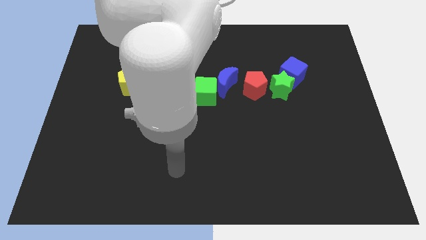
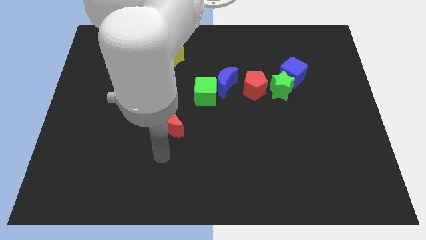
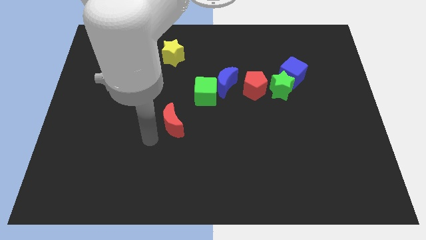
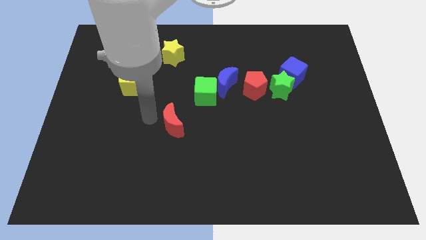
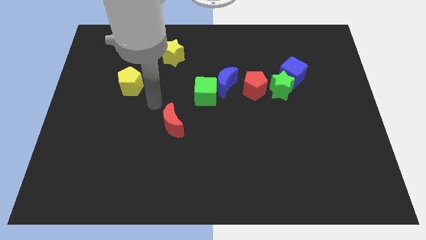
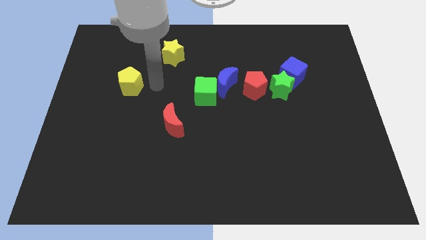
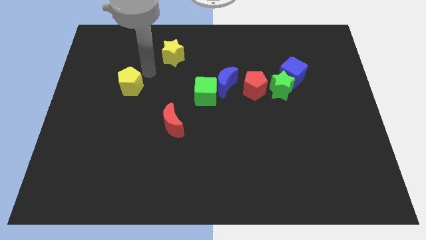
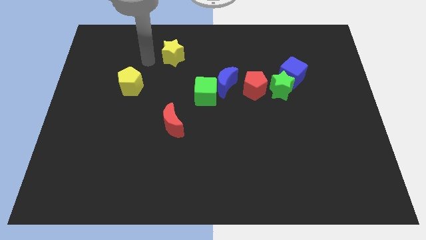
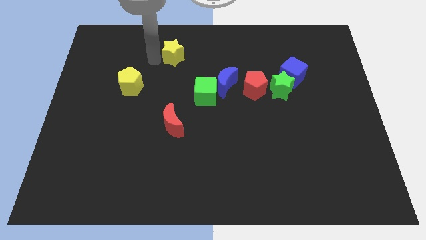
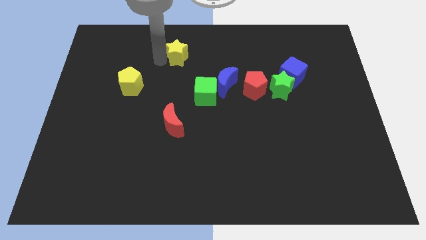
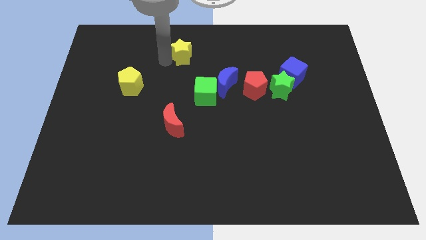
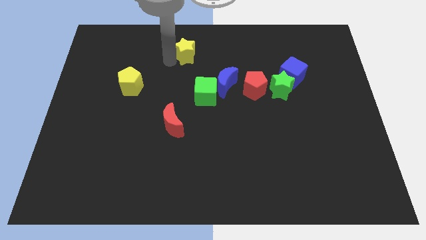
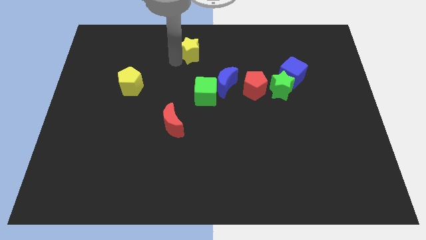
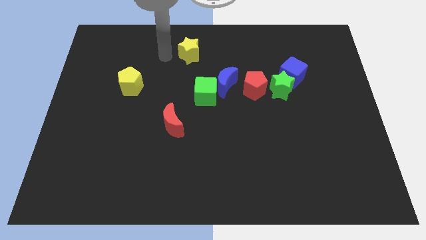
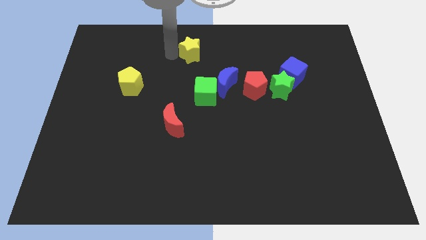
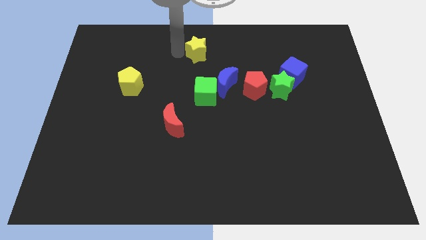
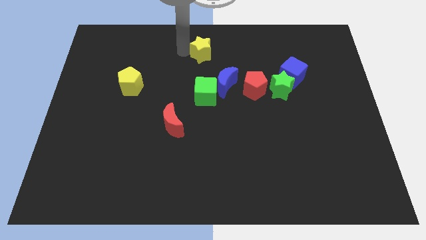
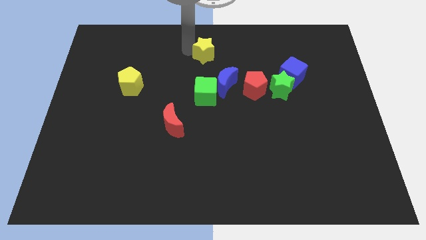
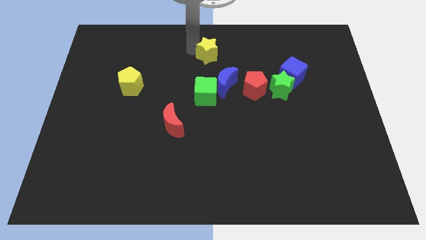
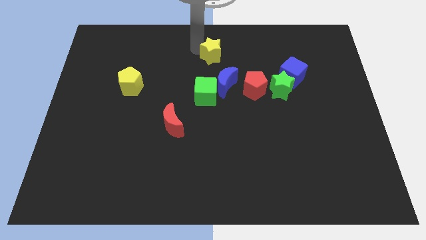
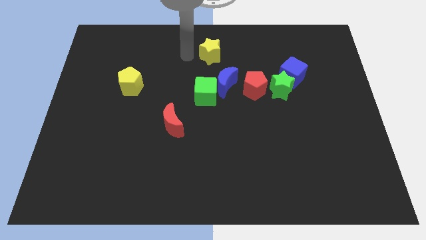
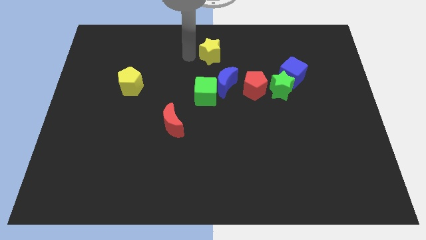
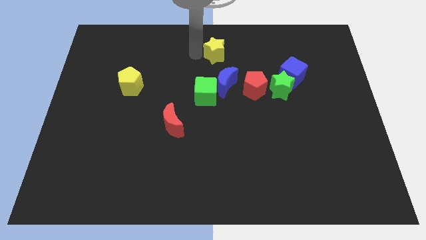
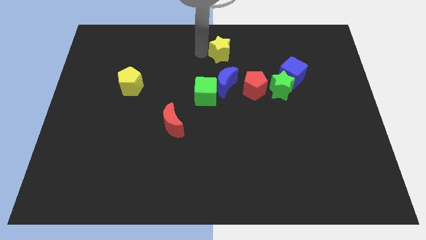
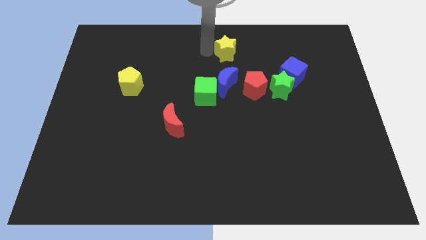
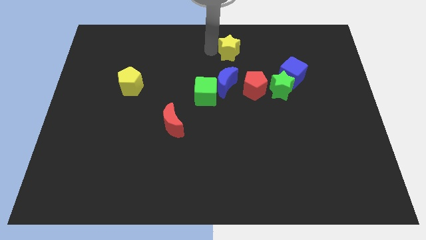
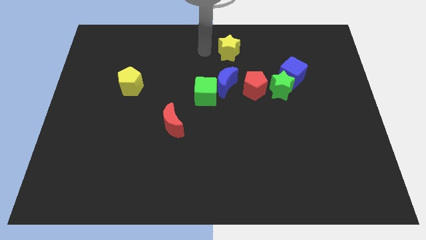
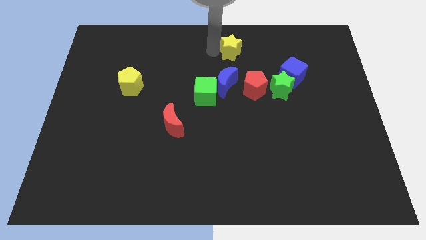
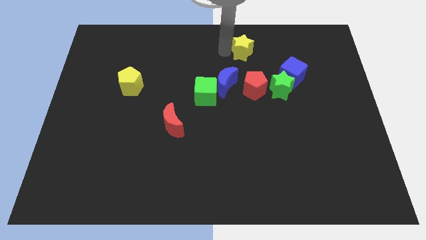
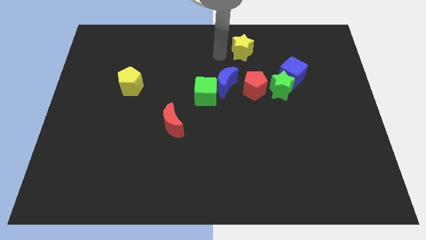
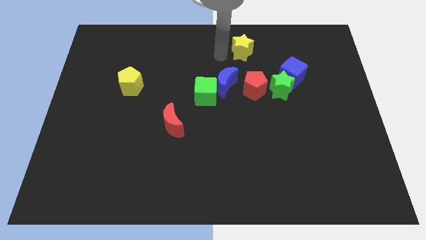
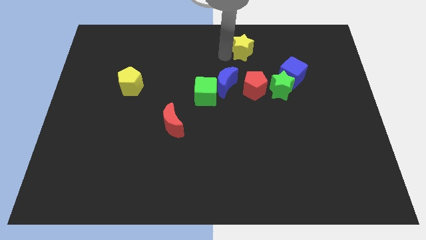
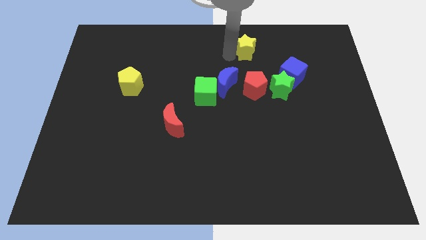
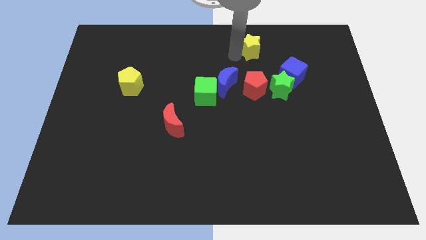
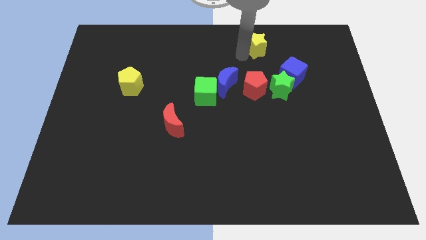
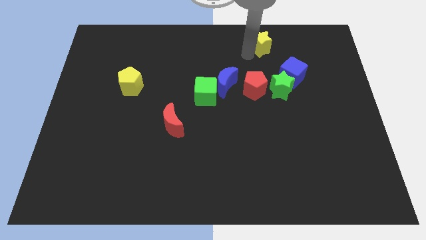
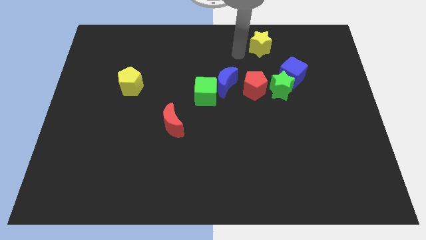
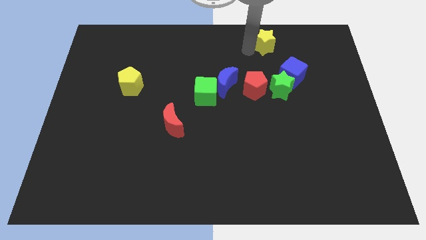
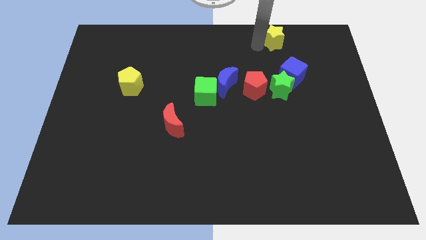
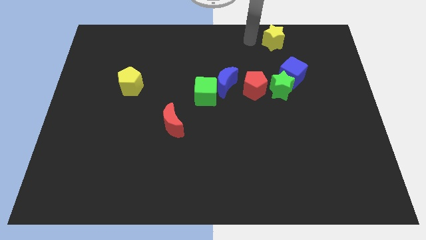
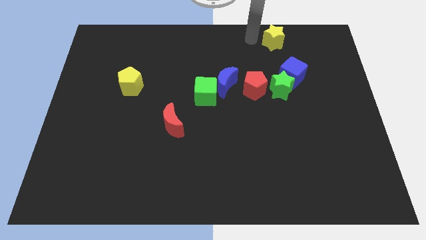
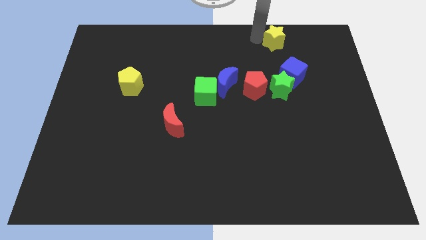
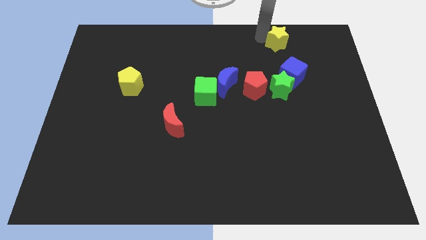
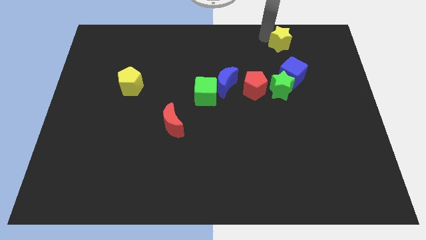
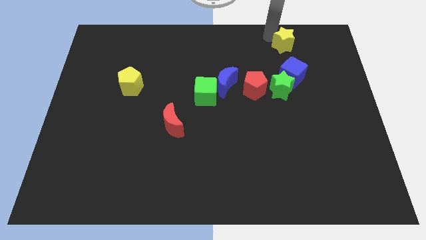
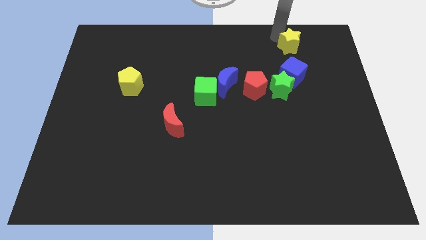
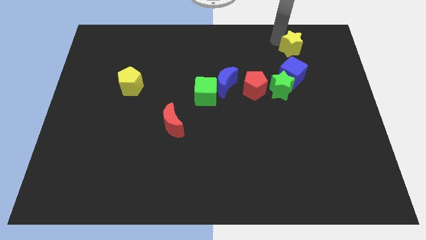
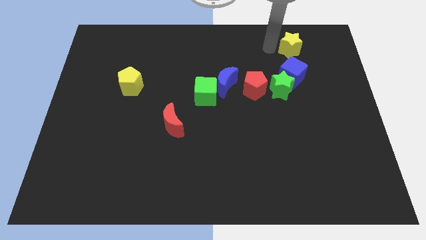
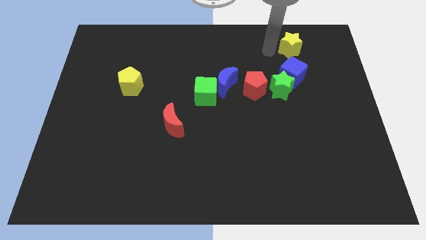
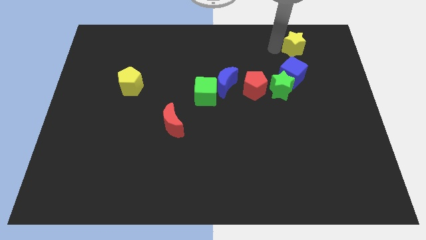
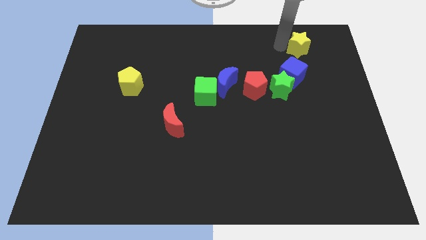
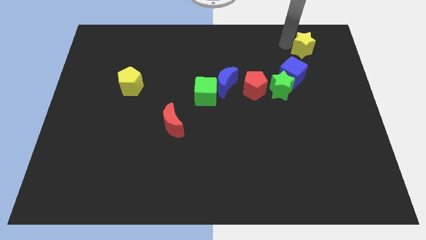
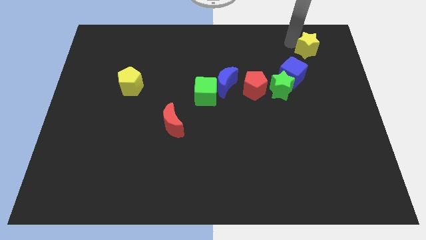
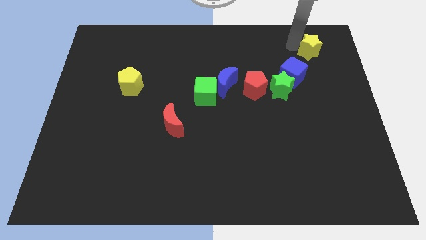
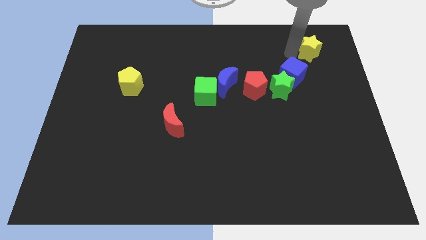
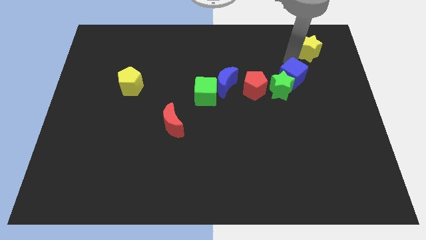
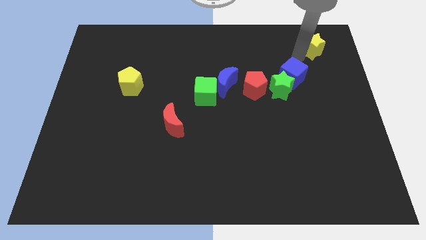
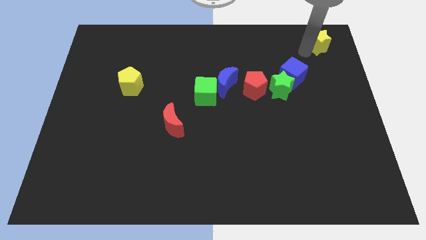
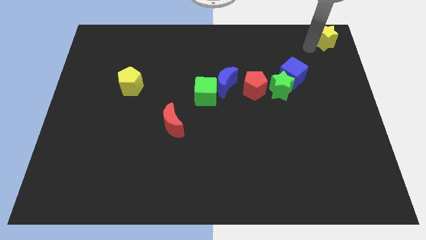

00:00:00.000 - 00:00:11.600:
slide the yellow star to the top right of the board

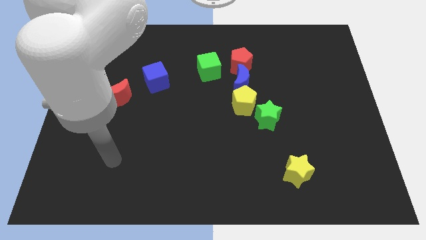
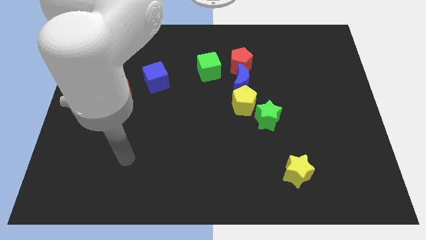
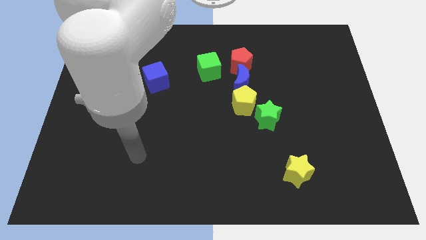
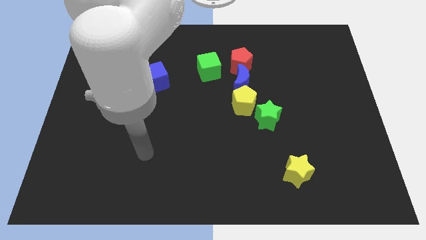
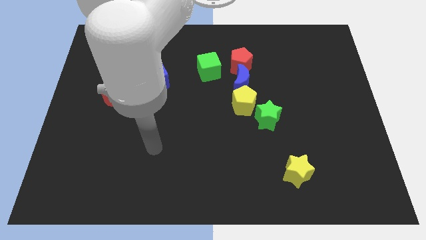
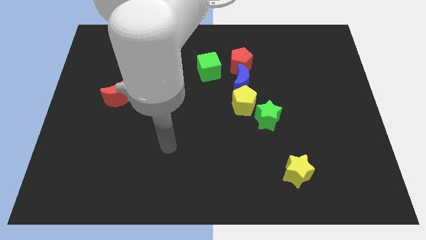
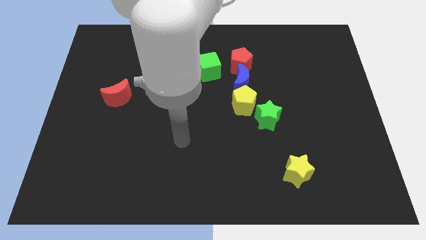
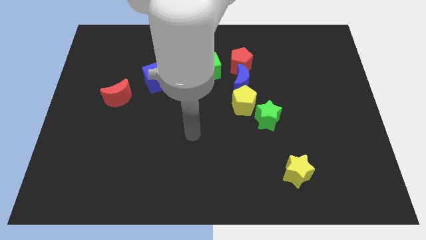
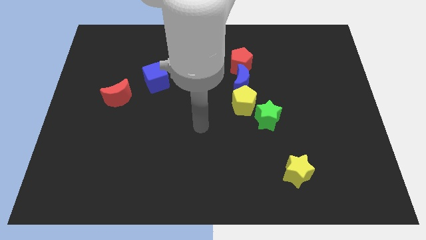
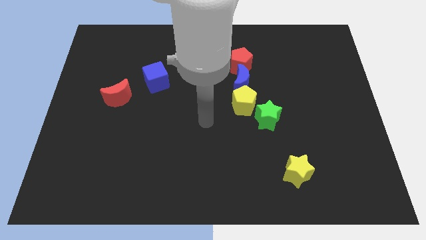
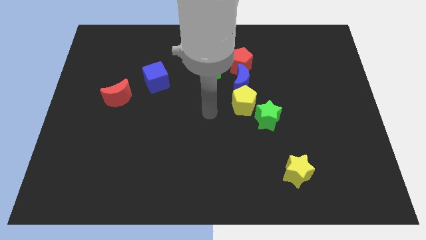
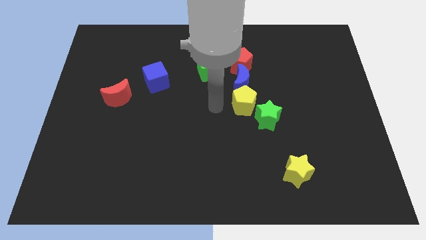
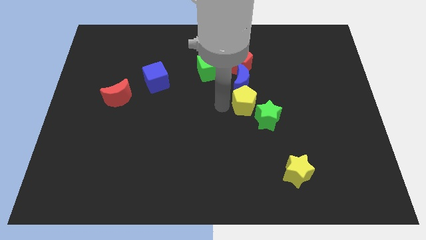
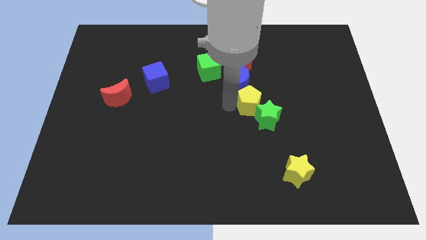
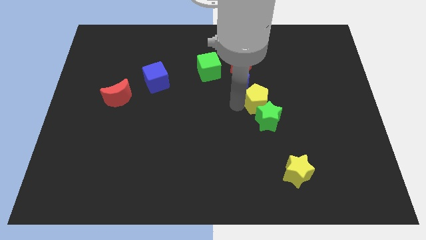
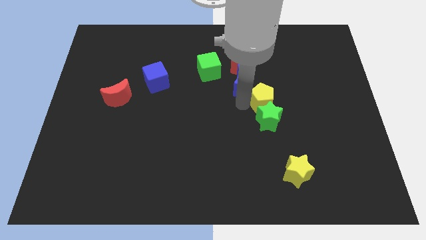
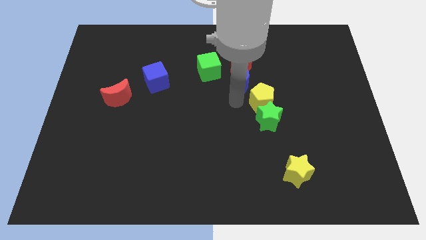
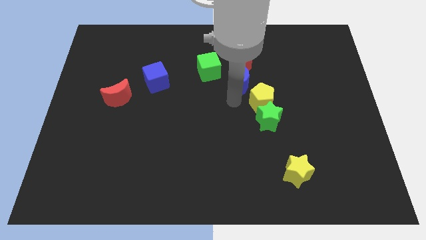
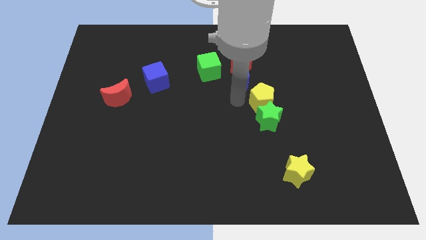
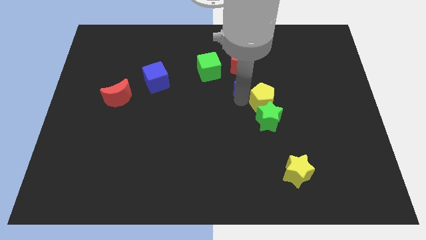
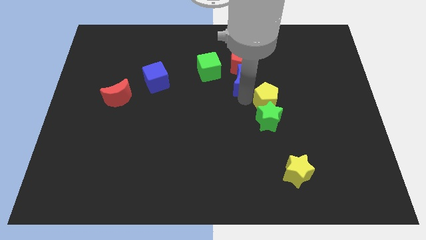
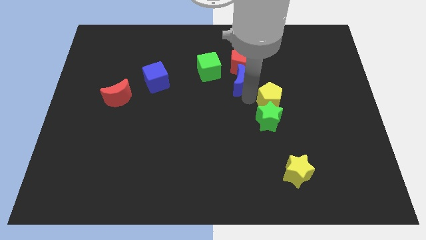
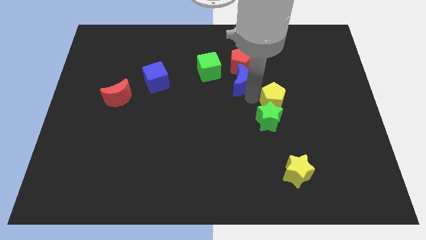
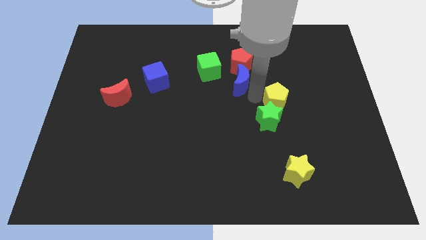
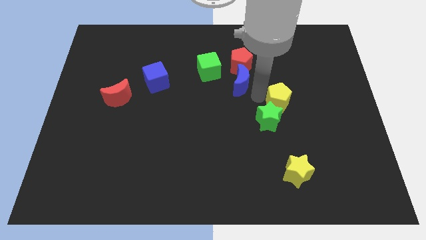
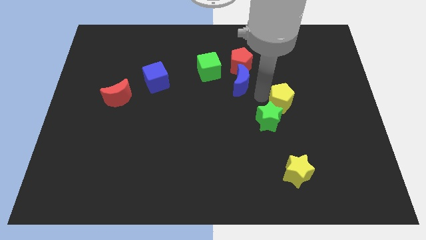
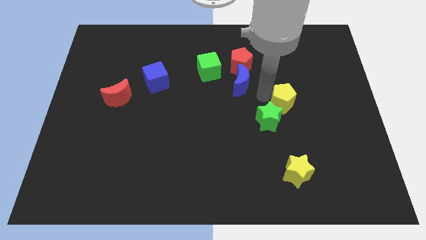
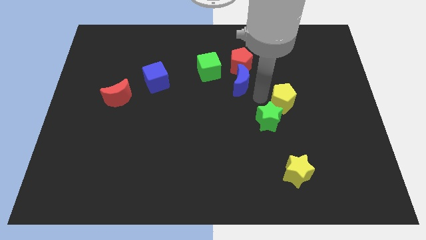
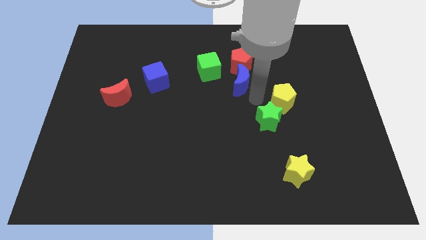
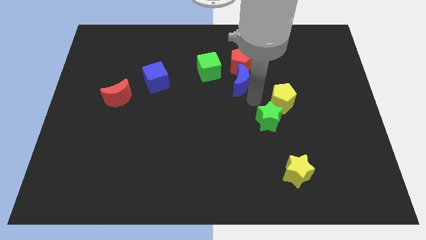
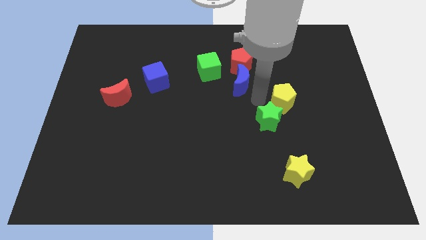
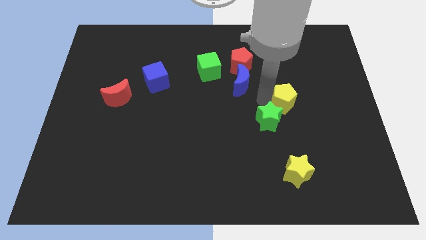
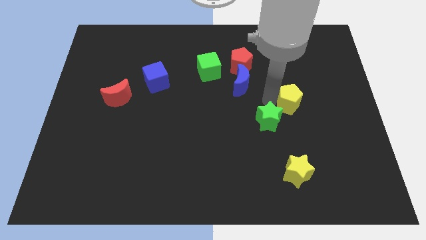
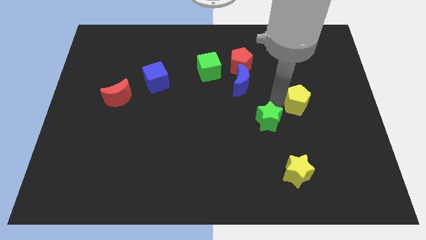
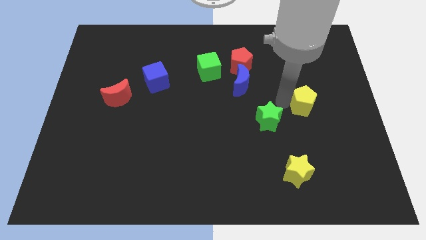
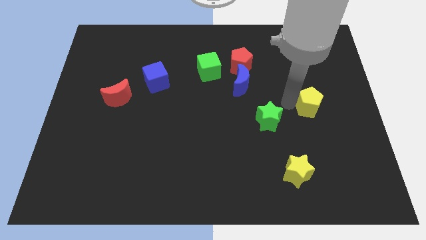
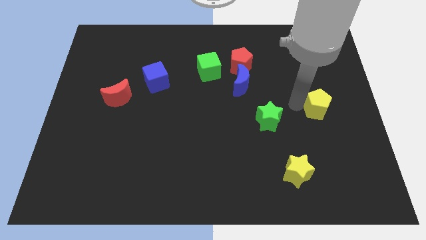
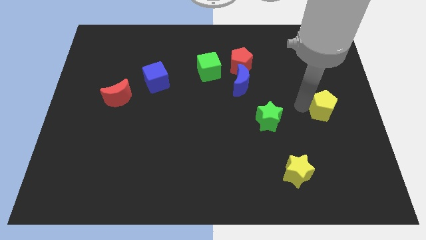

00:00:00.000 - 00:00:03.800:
push the yellow pentagon to the right side
